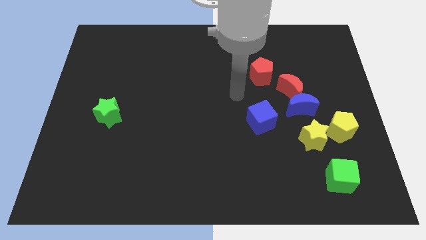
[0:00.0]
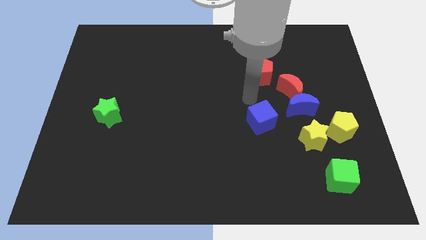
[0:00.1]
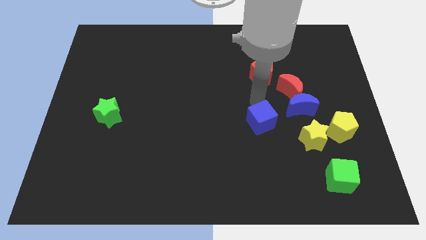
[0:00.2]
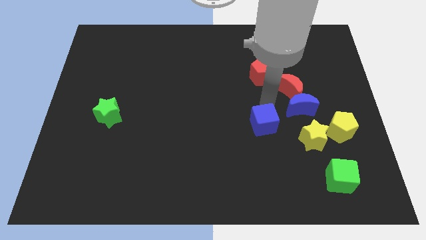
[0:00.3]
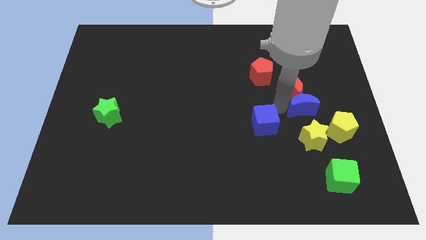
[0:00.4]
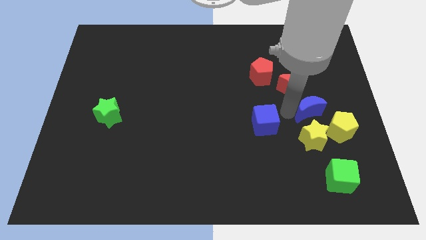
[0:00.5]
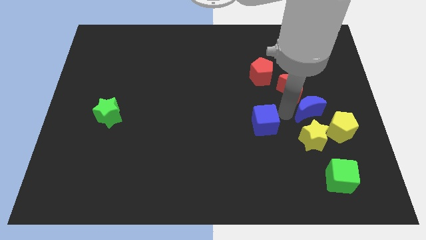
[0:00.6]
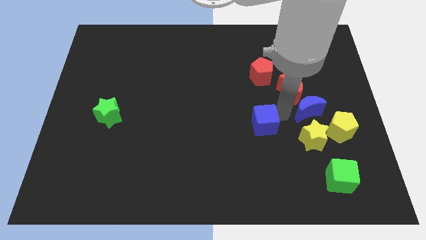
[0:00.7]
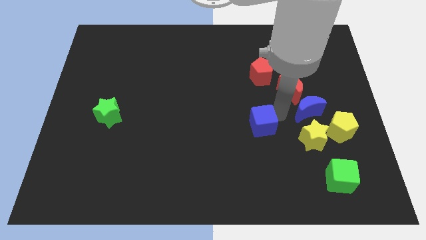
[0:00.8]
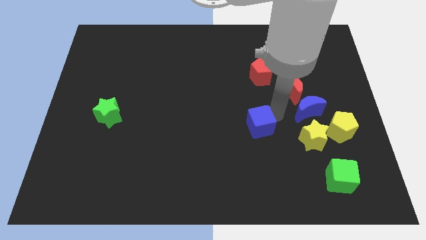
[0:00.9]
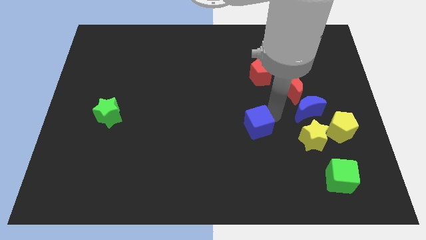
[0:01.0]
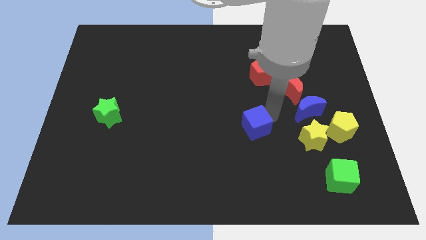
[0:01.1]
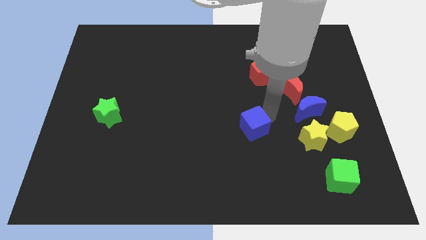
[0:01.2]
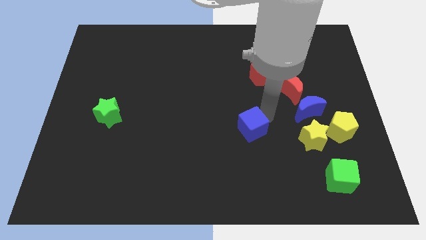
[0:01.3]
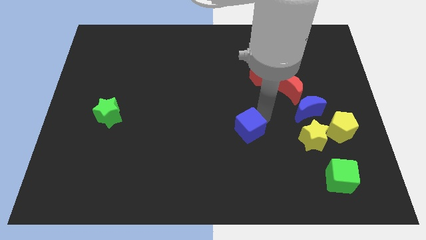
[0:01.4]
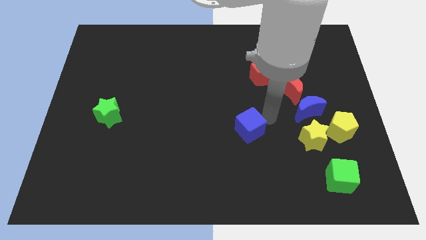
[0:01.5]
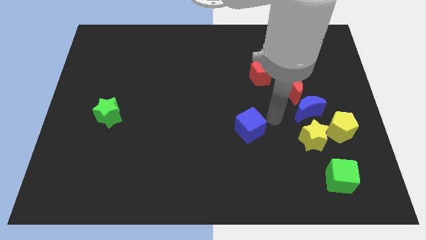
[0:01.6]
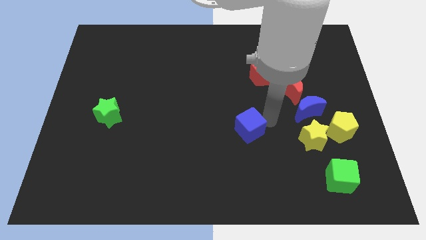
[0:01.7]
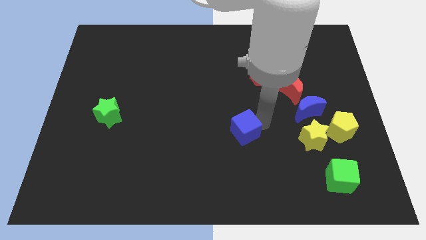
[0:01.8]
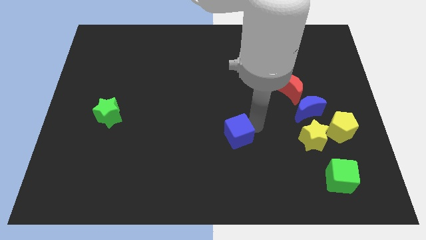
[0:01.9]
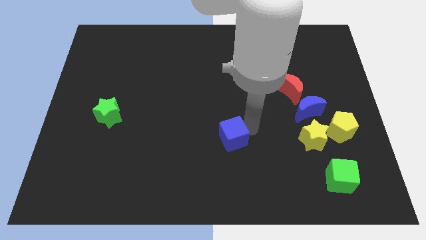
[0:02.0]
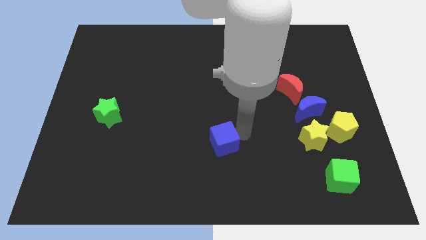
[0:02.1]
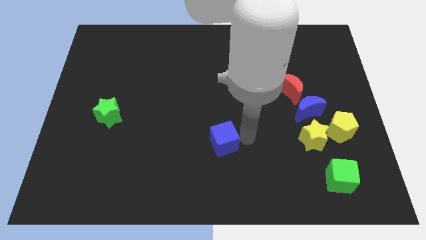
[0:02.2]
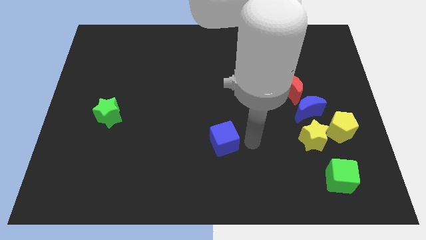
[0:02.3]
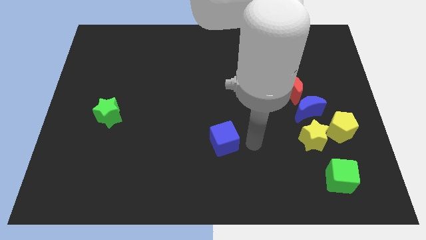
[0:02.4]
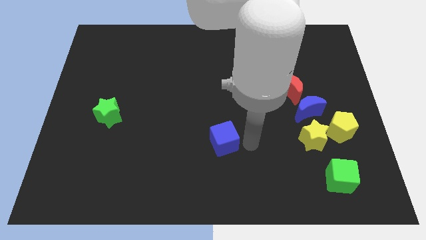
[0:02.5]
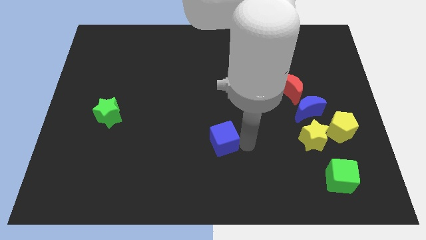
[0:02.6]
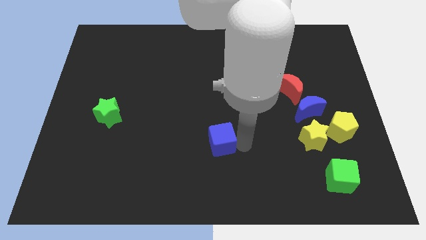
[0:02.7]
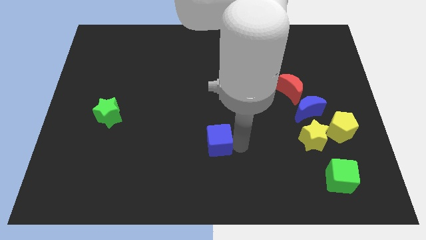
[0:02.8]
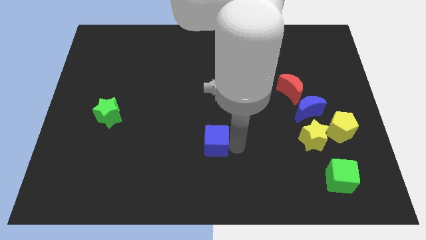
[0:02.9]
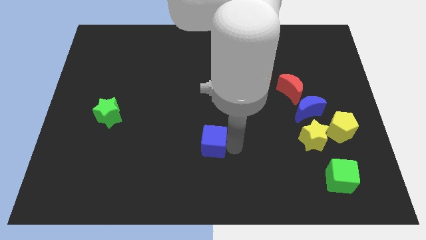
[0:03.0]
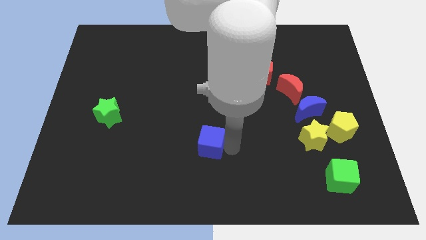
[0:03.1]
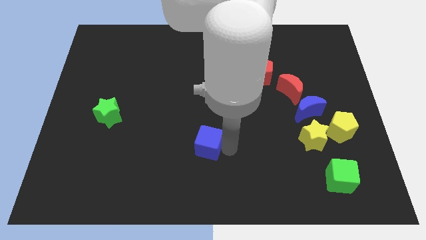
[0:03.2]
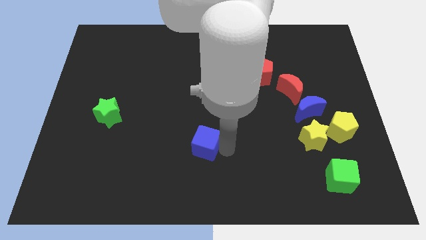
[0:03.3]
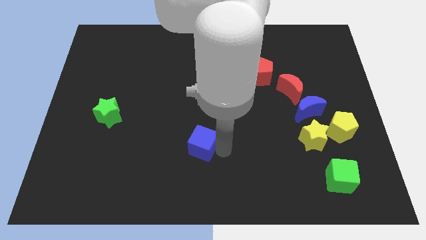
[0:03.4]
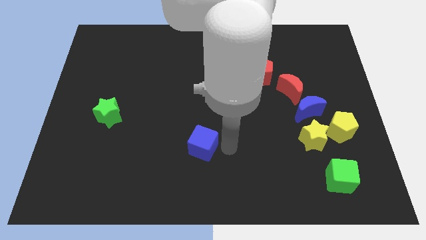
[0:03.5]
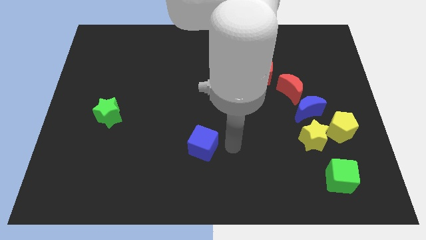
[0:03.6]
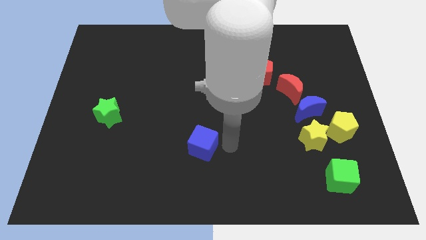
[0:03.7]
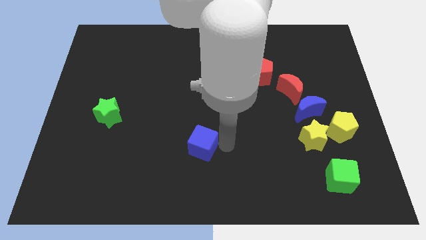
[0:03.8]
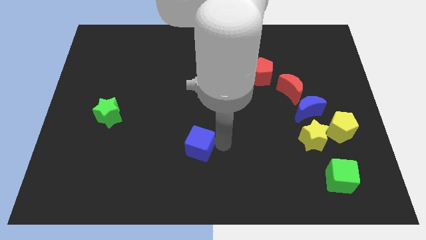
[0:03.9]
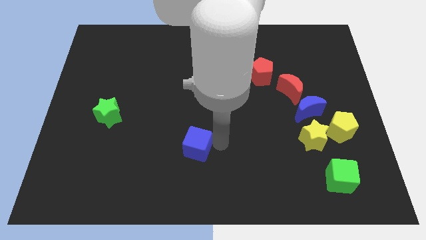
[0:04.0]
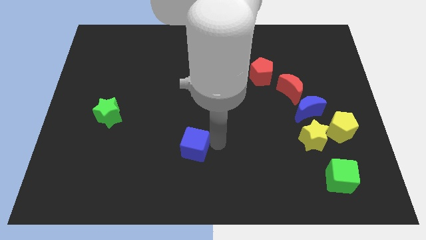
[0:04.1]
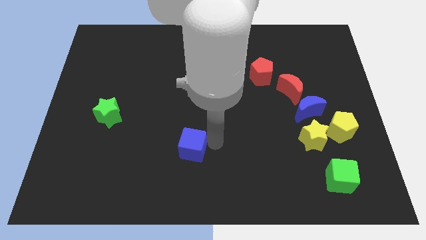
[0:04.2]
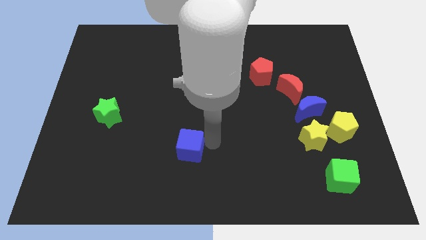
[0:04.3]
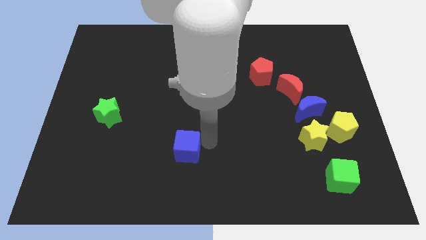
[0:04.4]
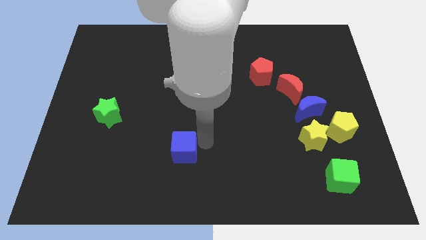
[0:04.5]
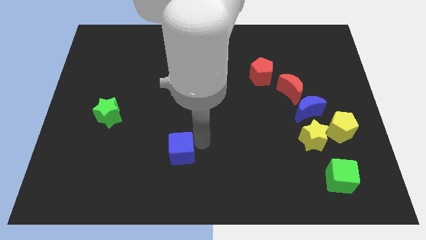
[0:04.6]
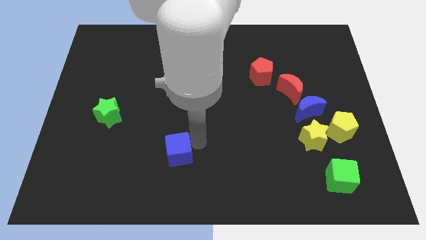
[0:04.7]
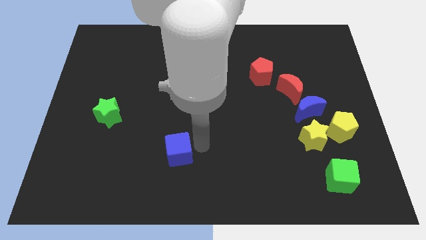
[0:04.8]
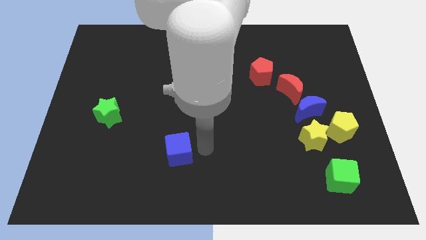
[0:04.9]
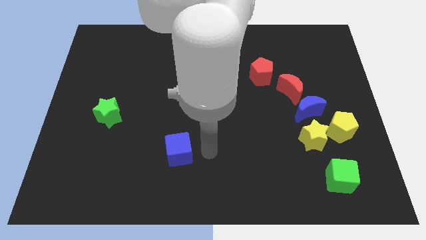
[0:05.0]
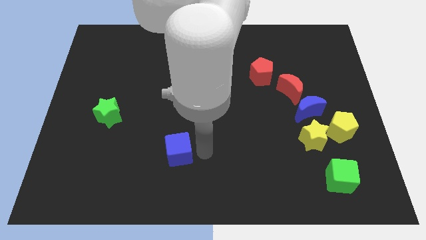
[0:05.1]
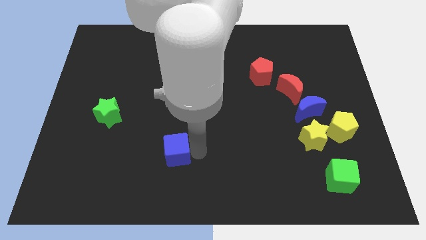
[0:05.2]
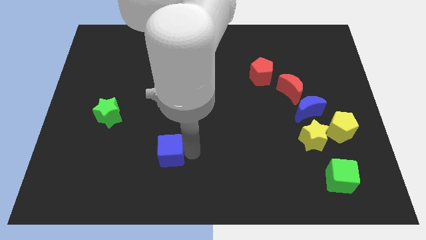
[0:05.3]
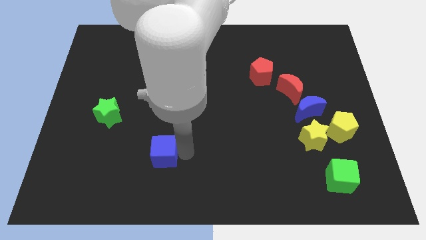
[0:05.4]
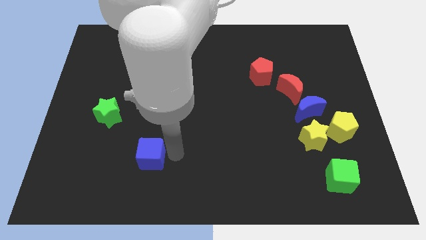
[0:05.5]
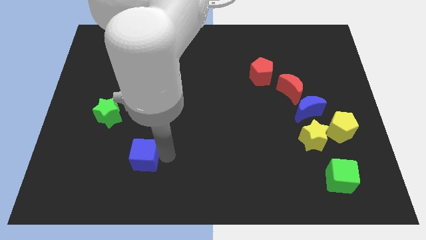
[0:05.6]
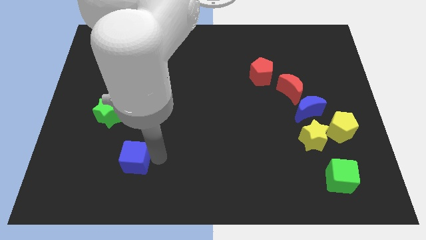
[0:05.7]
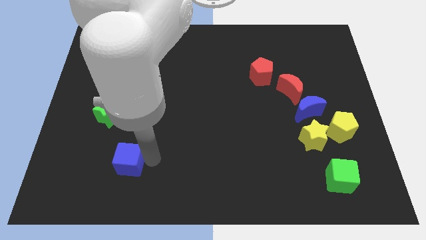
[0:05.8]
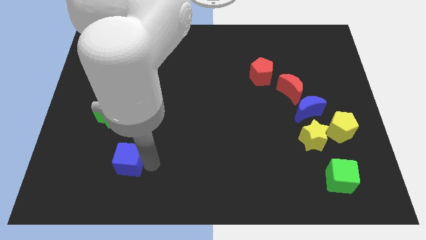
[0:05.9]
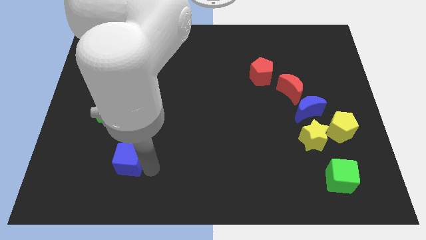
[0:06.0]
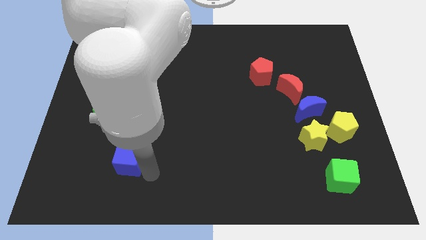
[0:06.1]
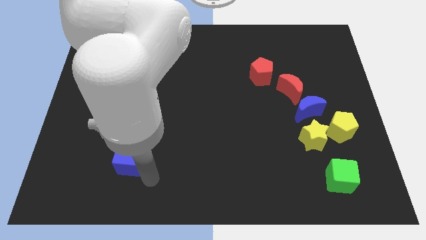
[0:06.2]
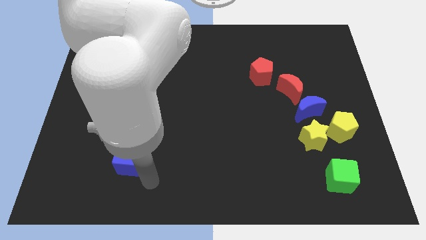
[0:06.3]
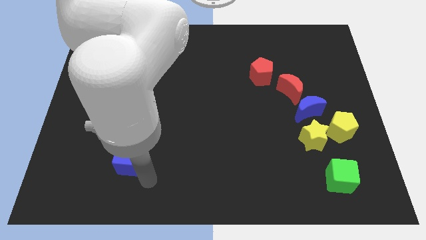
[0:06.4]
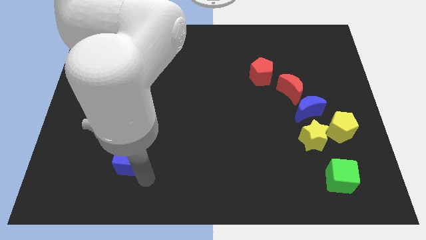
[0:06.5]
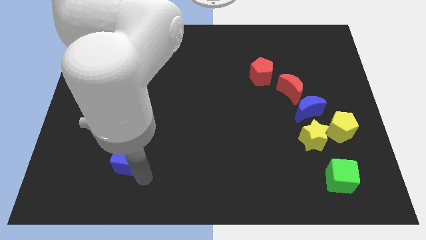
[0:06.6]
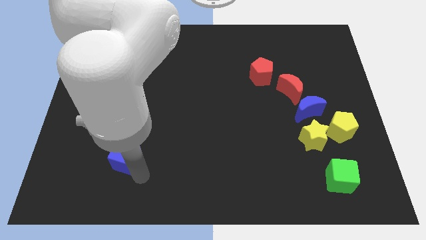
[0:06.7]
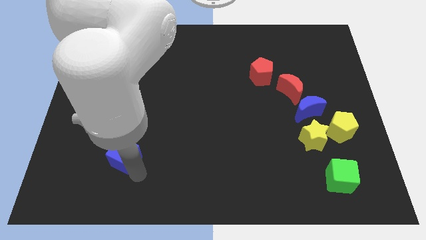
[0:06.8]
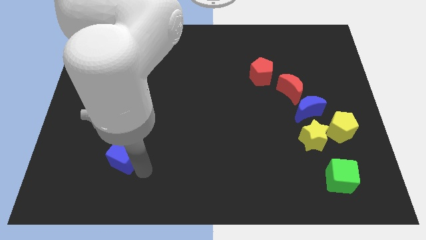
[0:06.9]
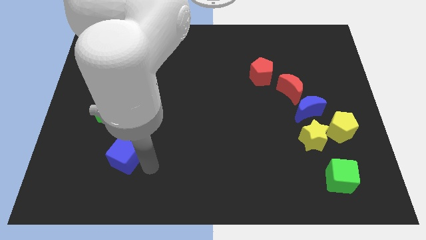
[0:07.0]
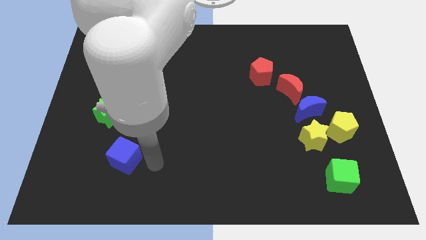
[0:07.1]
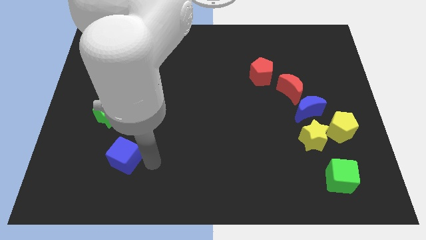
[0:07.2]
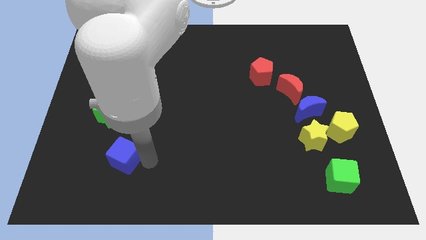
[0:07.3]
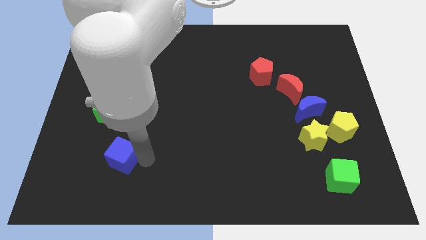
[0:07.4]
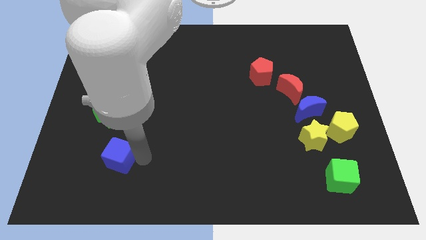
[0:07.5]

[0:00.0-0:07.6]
slide the blue cube to the bottom of the green star
